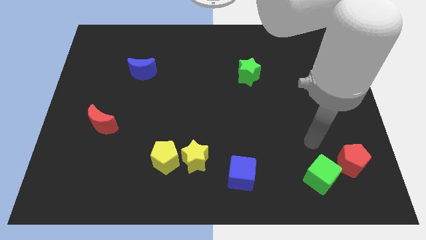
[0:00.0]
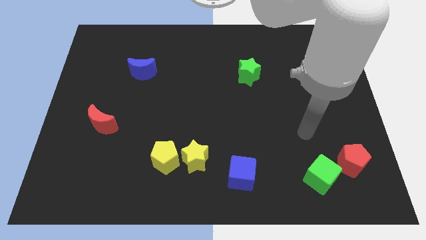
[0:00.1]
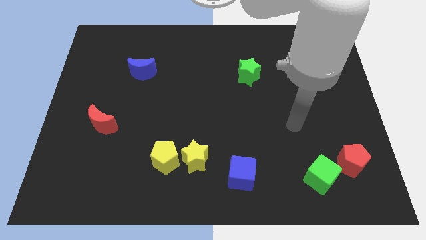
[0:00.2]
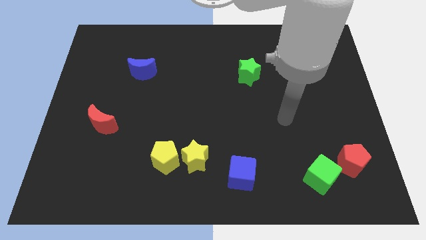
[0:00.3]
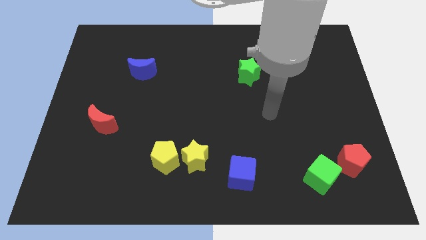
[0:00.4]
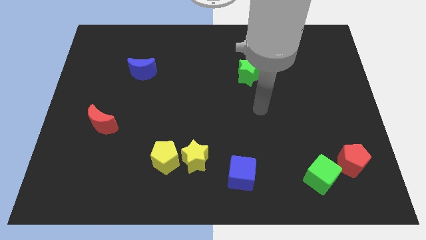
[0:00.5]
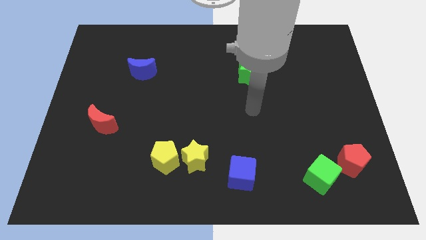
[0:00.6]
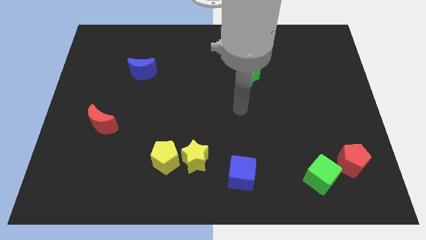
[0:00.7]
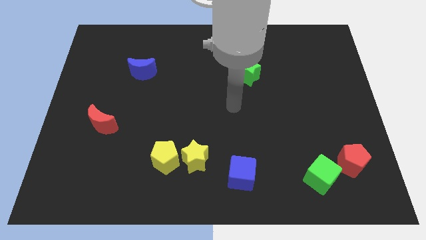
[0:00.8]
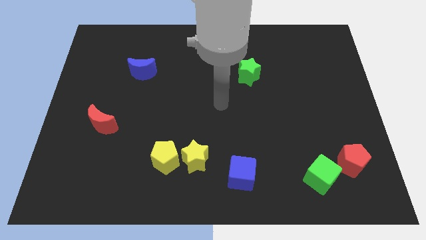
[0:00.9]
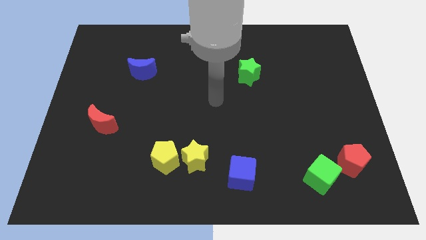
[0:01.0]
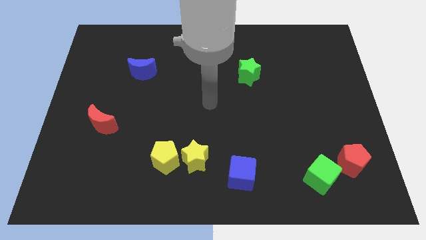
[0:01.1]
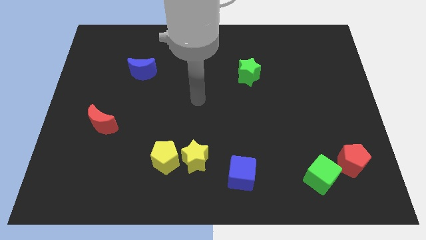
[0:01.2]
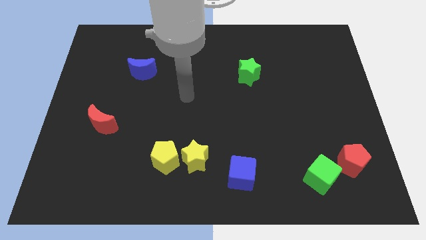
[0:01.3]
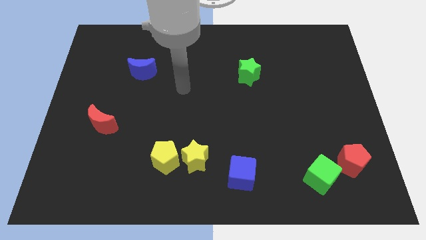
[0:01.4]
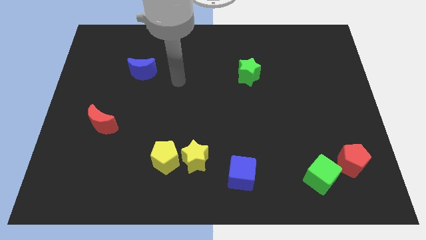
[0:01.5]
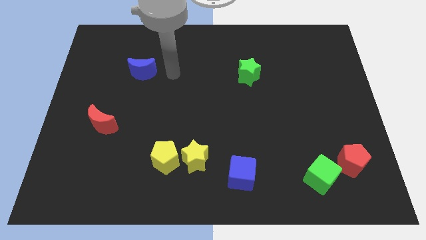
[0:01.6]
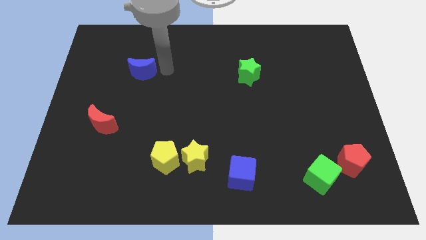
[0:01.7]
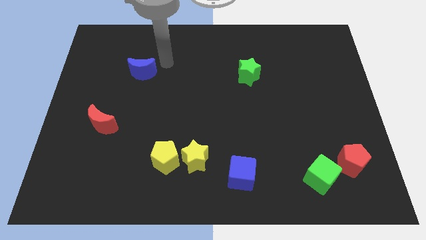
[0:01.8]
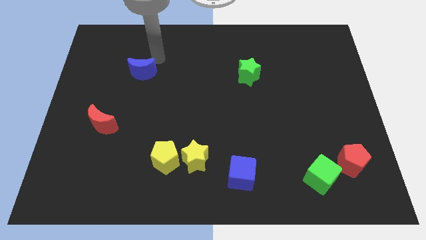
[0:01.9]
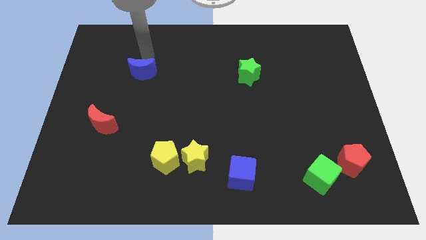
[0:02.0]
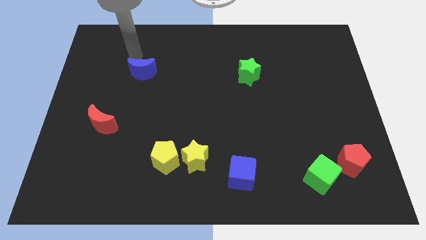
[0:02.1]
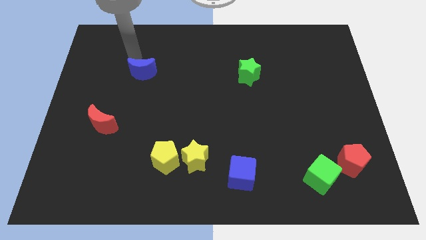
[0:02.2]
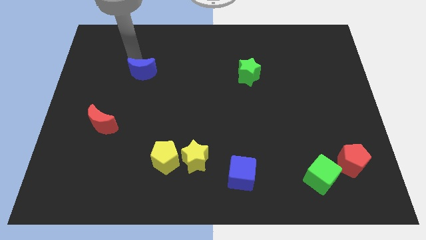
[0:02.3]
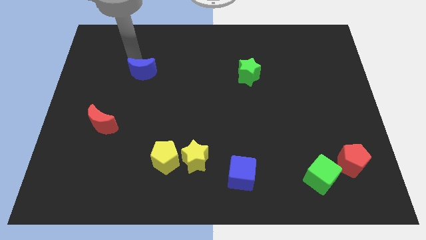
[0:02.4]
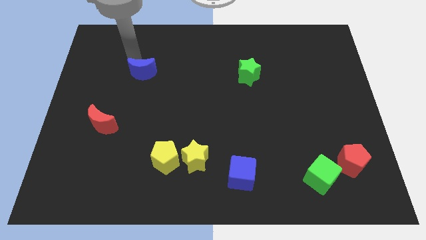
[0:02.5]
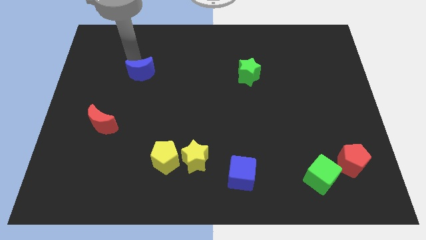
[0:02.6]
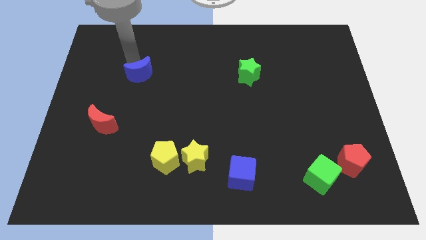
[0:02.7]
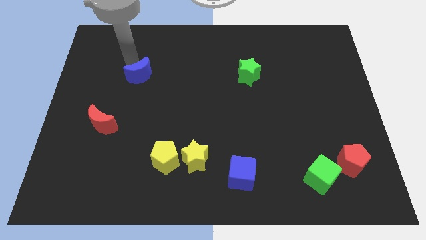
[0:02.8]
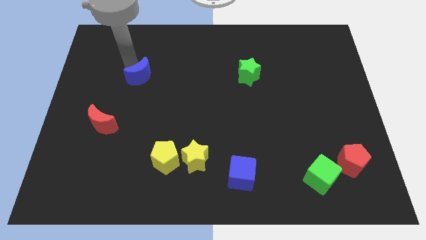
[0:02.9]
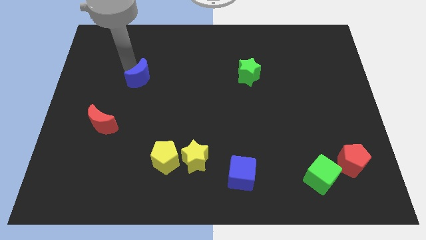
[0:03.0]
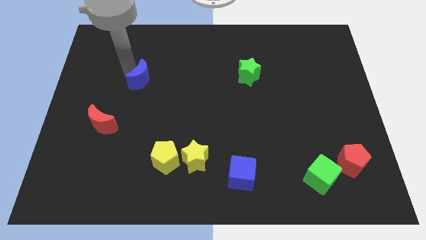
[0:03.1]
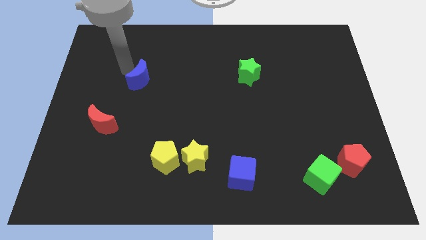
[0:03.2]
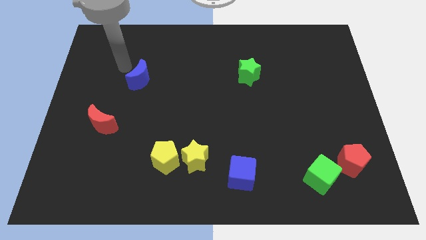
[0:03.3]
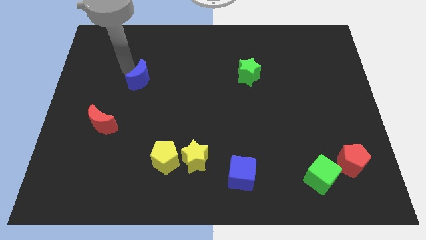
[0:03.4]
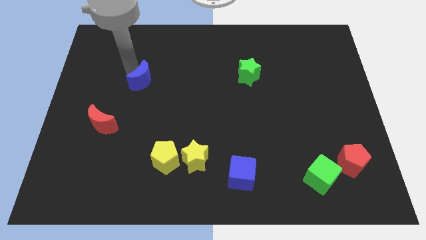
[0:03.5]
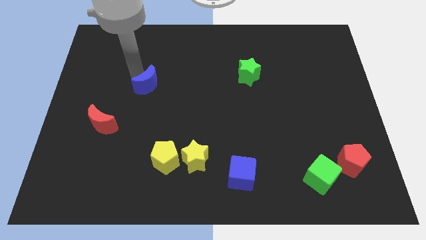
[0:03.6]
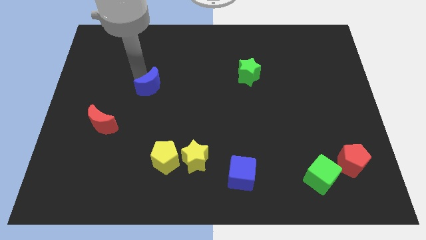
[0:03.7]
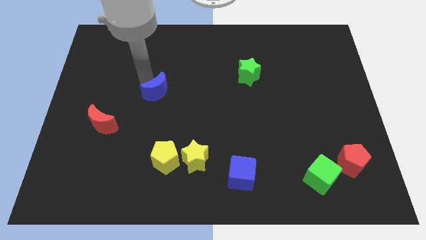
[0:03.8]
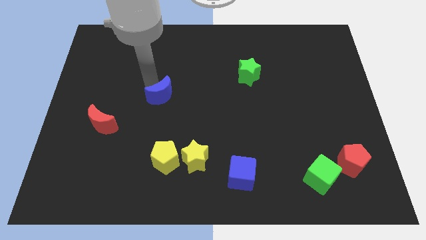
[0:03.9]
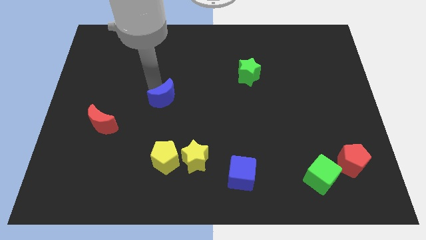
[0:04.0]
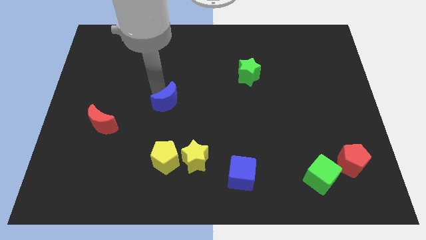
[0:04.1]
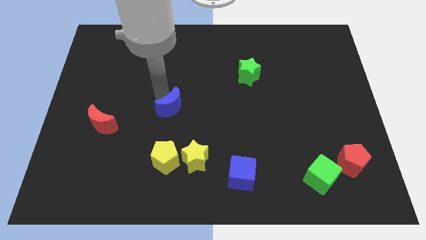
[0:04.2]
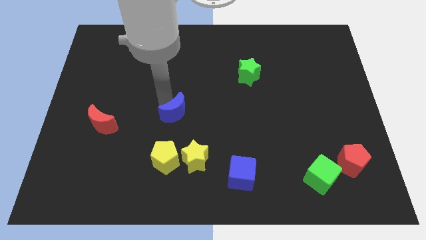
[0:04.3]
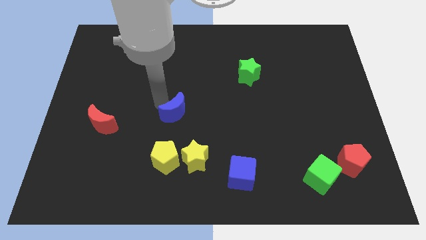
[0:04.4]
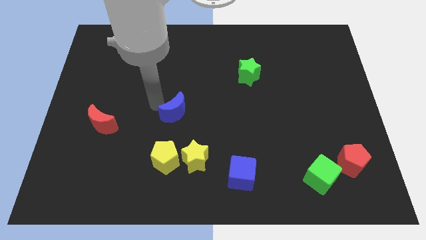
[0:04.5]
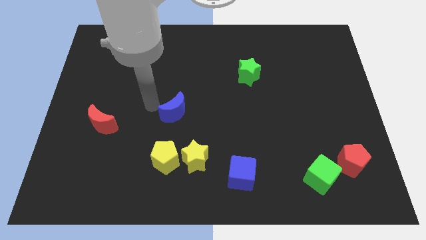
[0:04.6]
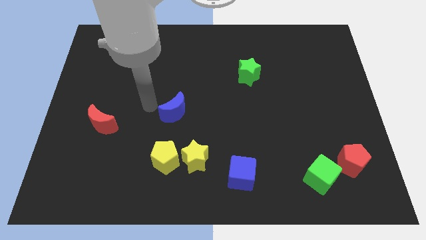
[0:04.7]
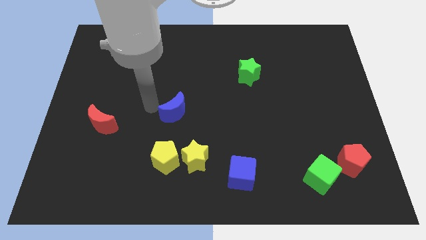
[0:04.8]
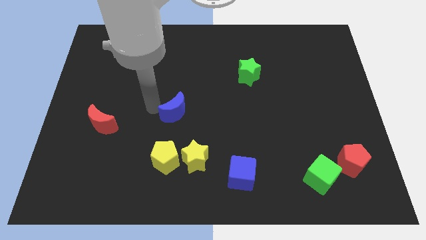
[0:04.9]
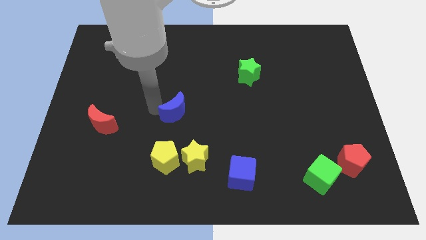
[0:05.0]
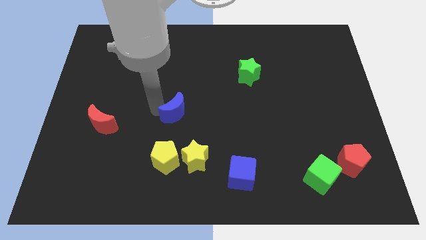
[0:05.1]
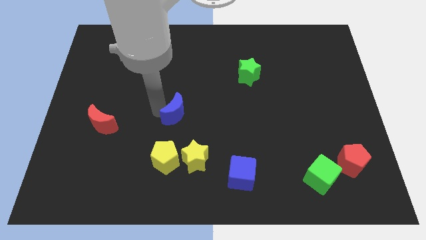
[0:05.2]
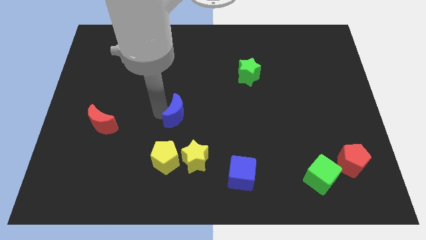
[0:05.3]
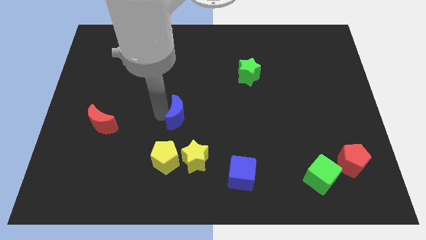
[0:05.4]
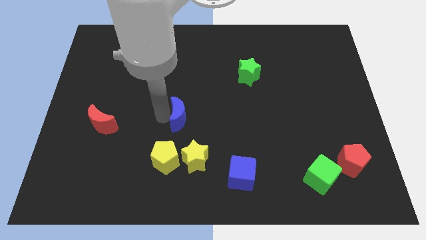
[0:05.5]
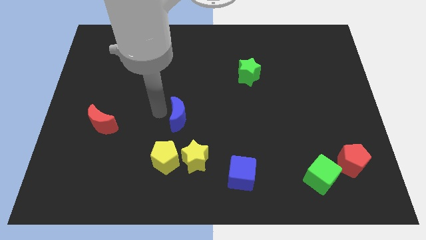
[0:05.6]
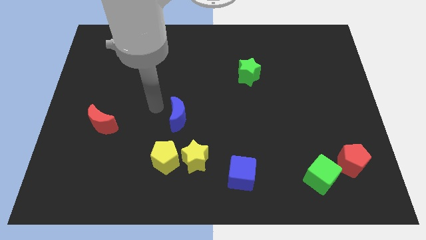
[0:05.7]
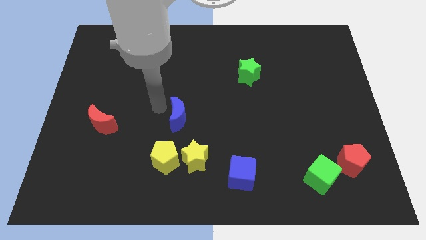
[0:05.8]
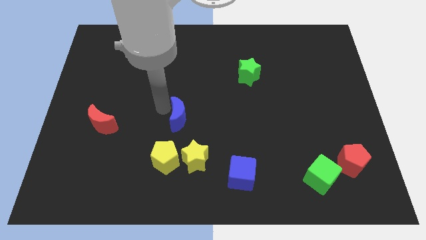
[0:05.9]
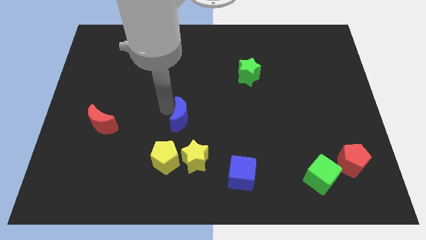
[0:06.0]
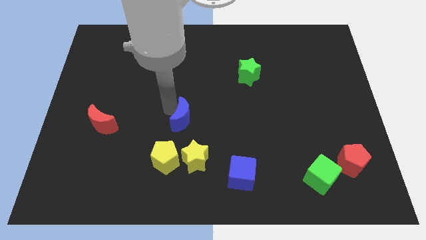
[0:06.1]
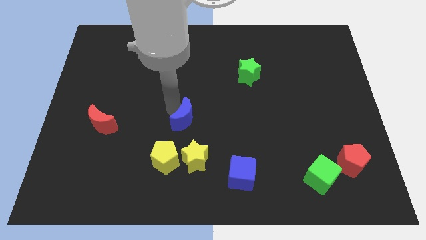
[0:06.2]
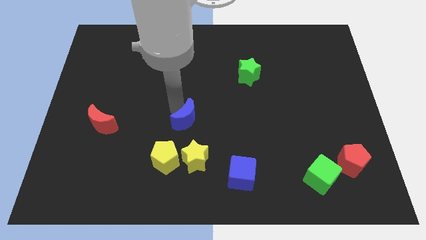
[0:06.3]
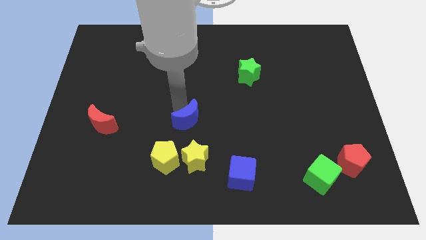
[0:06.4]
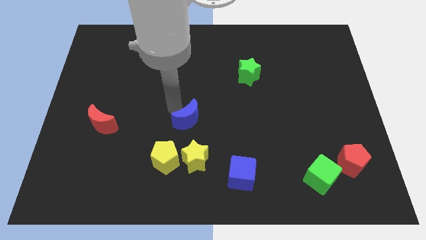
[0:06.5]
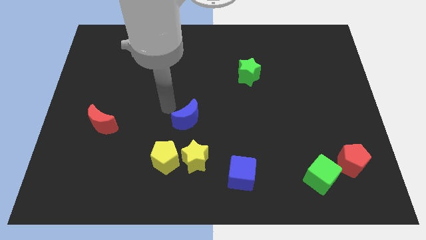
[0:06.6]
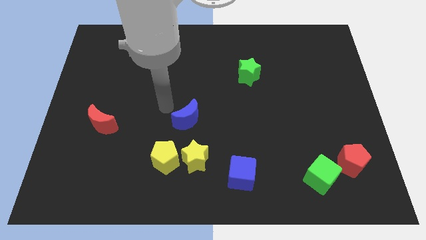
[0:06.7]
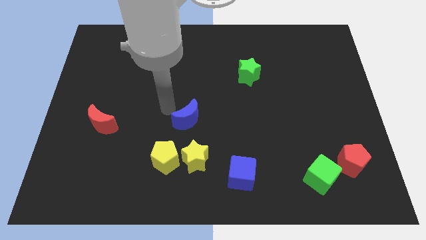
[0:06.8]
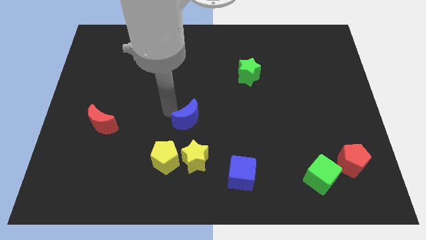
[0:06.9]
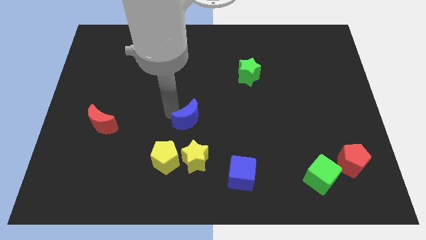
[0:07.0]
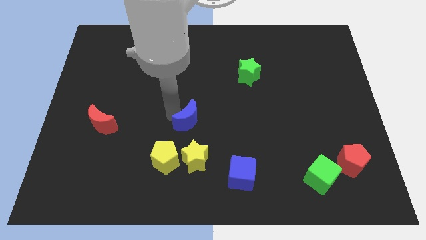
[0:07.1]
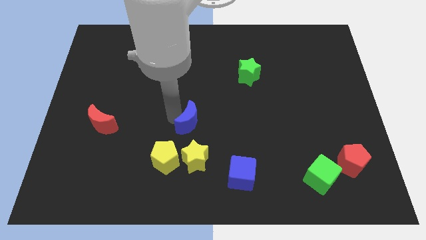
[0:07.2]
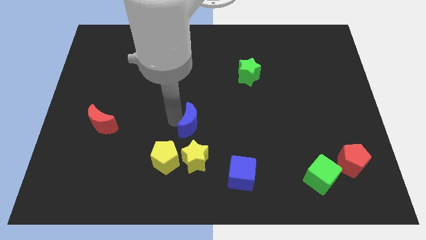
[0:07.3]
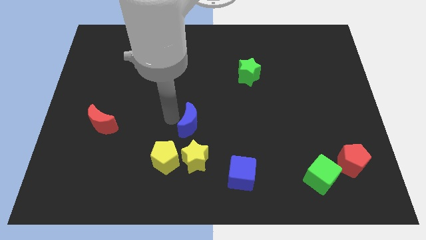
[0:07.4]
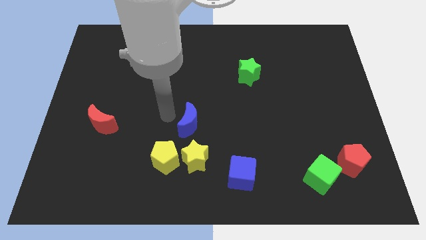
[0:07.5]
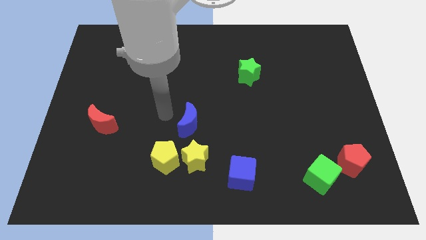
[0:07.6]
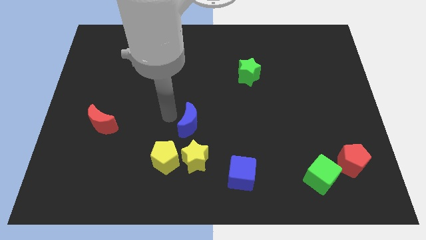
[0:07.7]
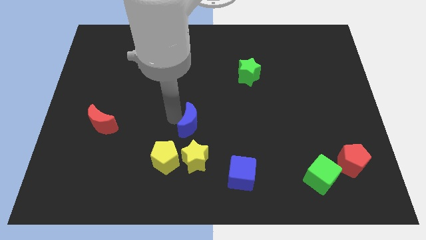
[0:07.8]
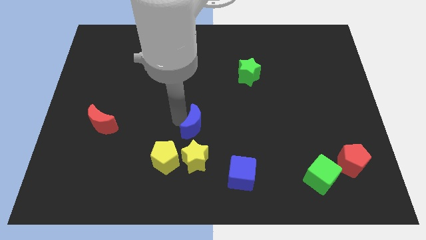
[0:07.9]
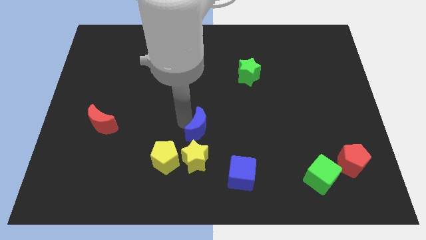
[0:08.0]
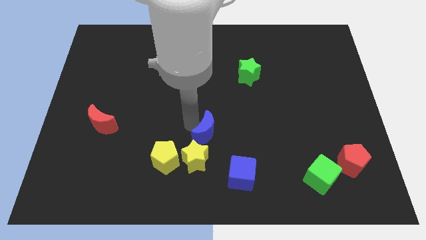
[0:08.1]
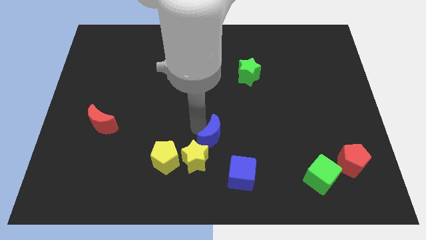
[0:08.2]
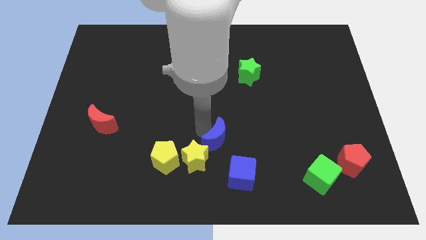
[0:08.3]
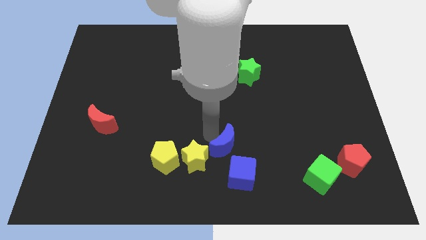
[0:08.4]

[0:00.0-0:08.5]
slide the blue moon just right of the yellow star
